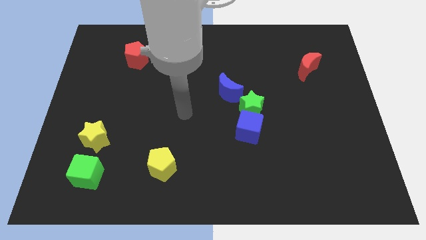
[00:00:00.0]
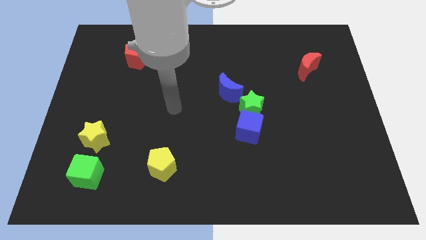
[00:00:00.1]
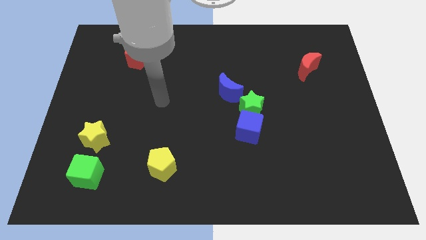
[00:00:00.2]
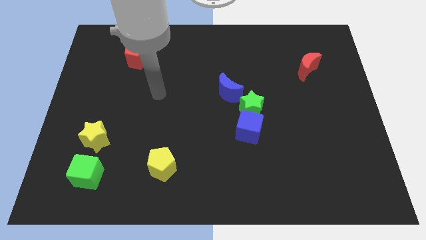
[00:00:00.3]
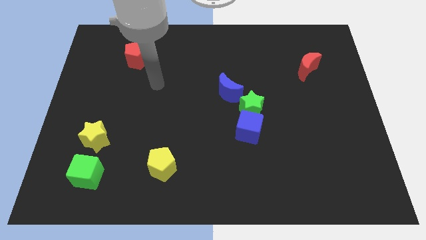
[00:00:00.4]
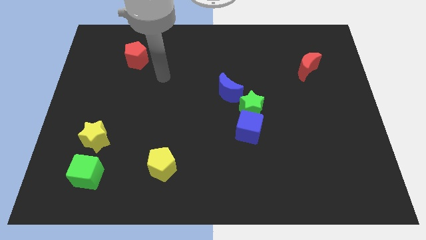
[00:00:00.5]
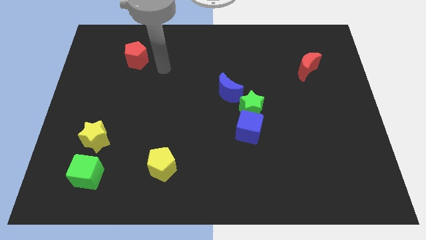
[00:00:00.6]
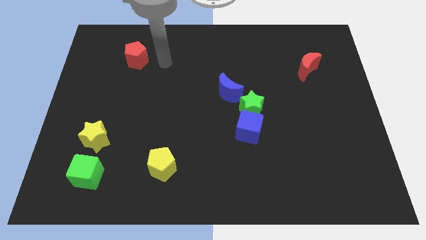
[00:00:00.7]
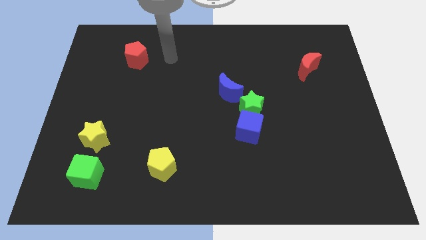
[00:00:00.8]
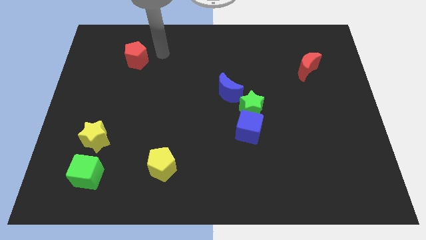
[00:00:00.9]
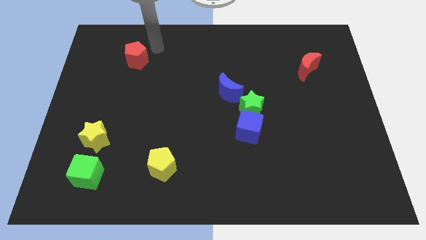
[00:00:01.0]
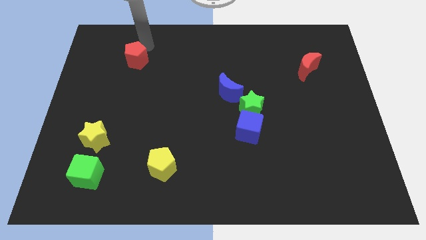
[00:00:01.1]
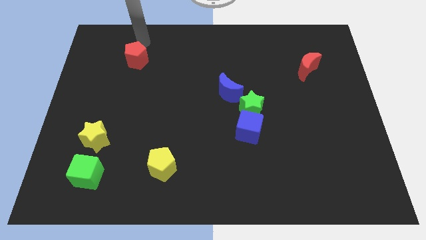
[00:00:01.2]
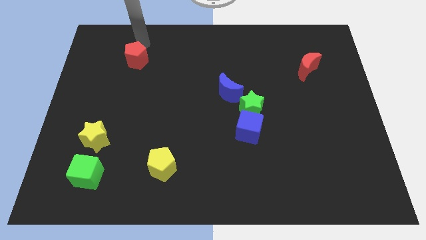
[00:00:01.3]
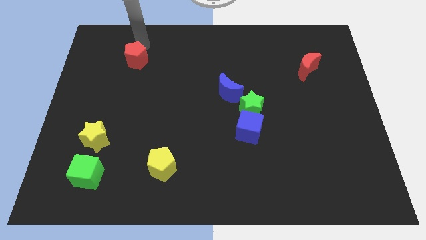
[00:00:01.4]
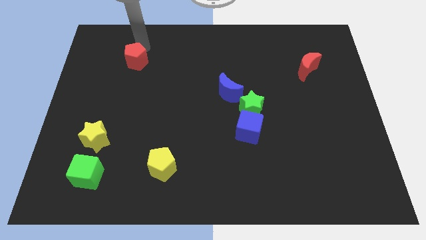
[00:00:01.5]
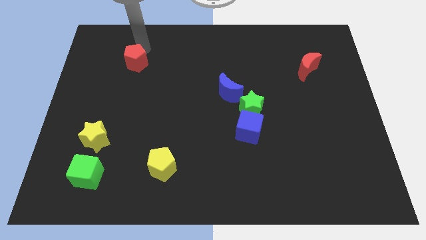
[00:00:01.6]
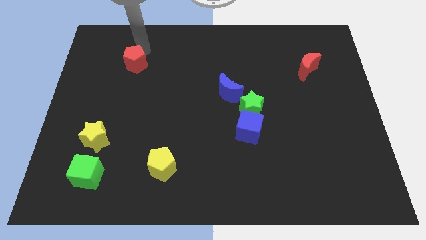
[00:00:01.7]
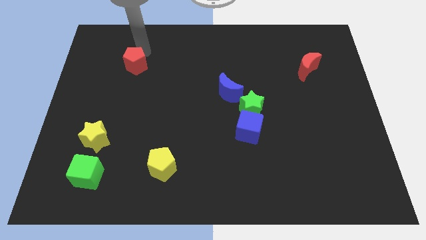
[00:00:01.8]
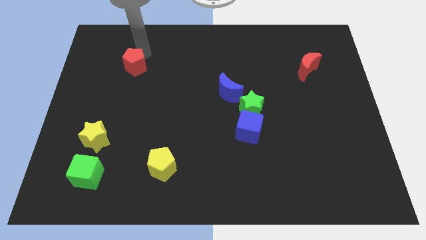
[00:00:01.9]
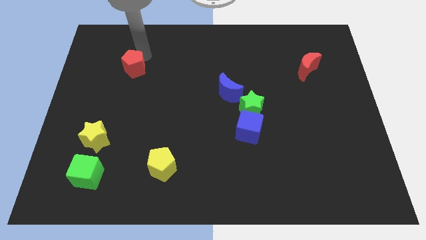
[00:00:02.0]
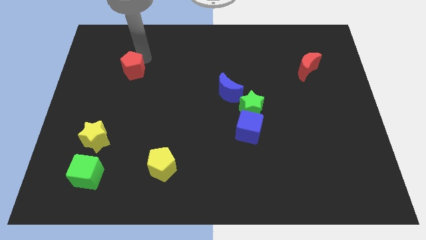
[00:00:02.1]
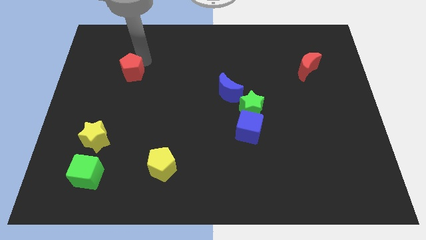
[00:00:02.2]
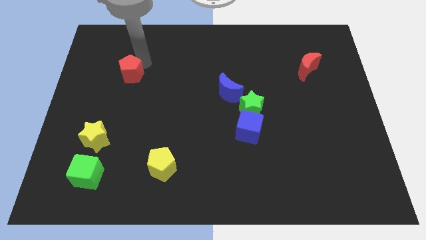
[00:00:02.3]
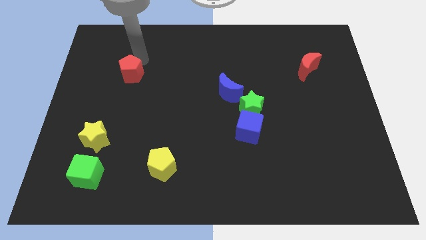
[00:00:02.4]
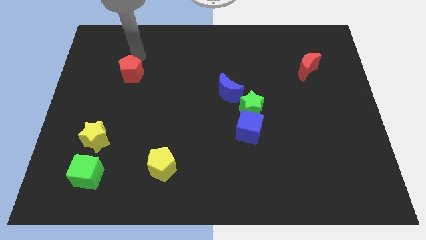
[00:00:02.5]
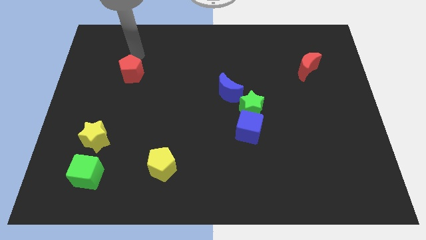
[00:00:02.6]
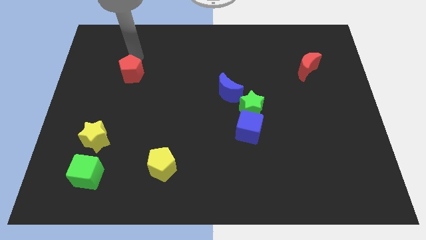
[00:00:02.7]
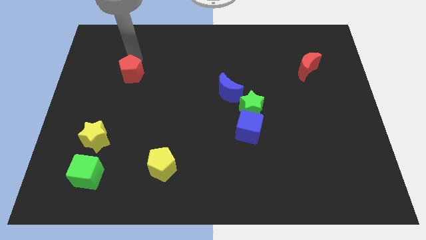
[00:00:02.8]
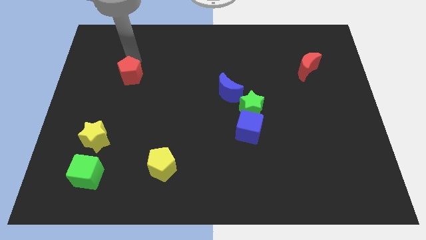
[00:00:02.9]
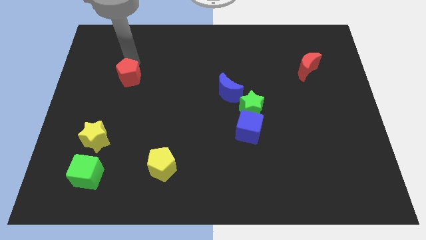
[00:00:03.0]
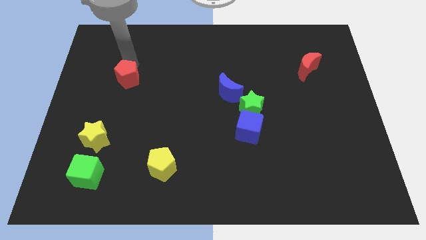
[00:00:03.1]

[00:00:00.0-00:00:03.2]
push the red pentagon somewhat downwards

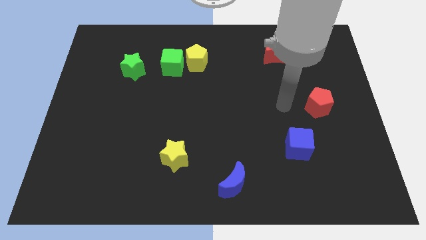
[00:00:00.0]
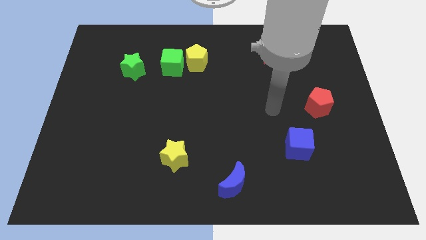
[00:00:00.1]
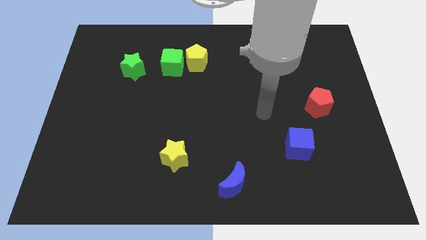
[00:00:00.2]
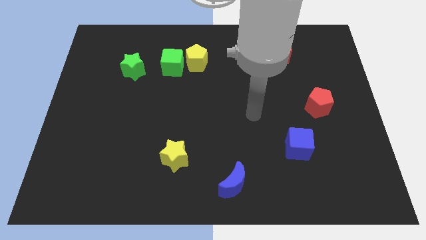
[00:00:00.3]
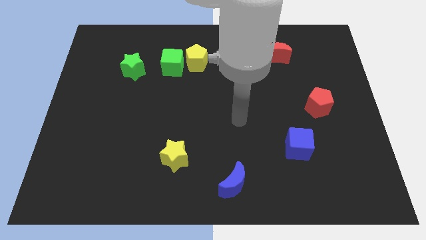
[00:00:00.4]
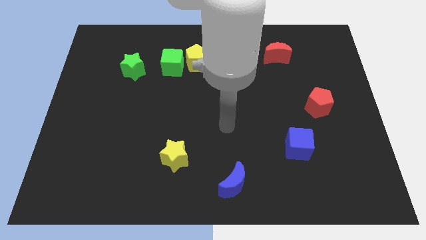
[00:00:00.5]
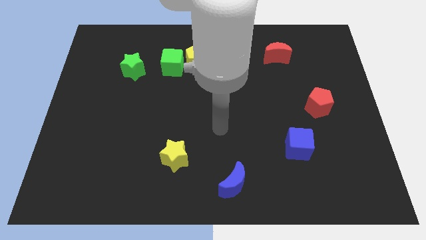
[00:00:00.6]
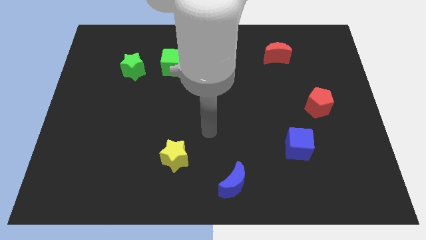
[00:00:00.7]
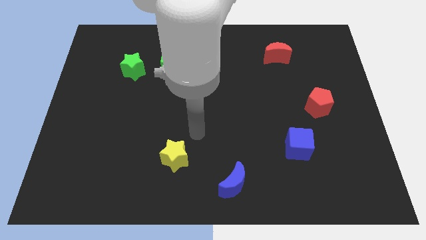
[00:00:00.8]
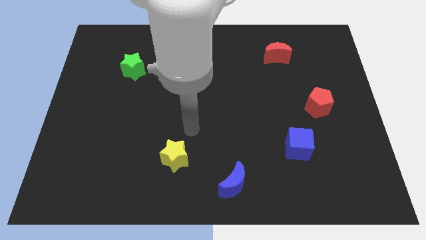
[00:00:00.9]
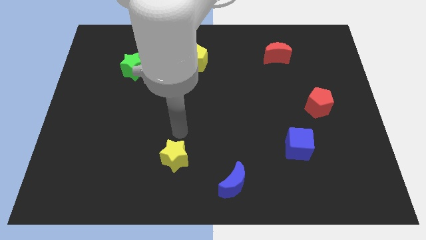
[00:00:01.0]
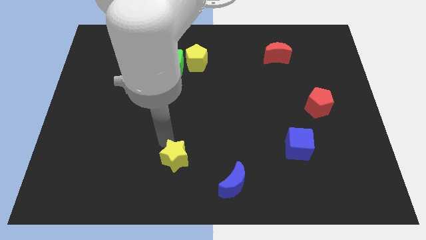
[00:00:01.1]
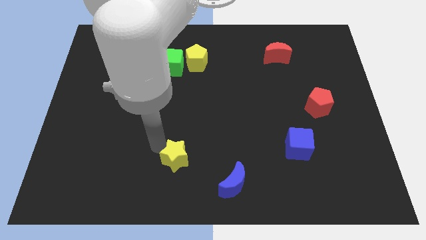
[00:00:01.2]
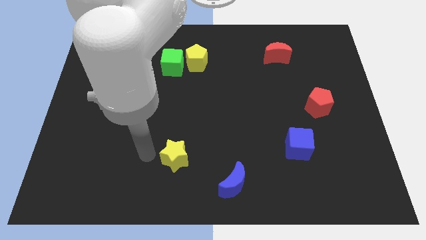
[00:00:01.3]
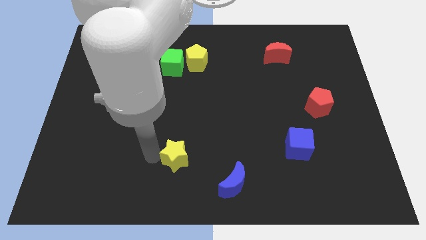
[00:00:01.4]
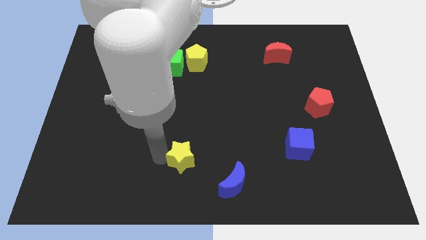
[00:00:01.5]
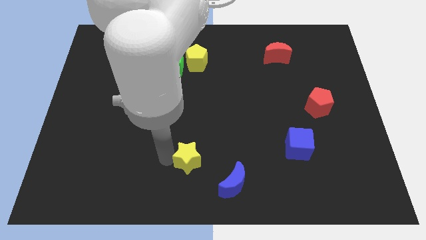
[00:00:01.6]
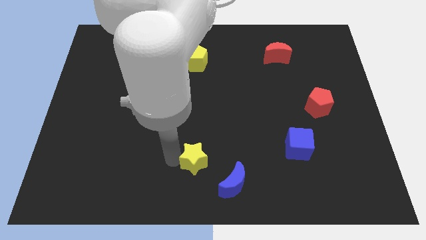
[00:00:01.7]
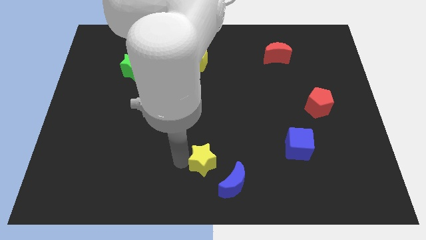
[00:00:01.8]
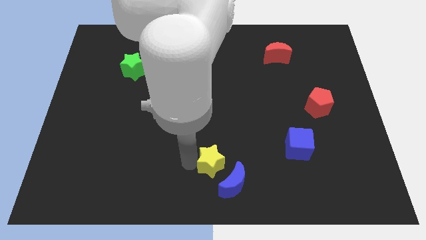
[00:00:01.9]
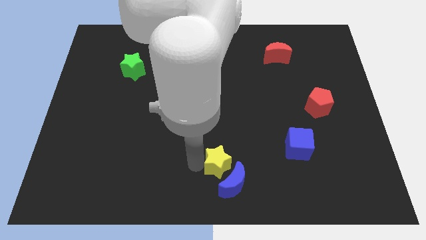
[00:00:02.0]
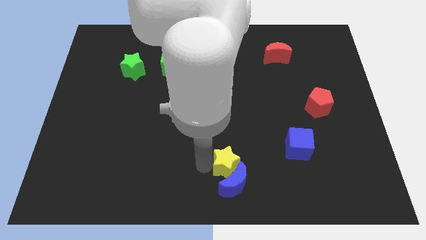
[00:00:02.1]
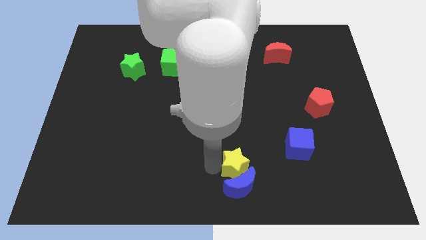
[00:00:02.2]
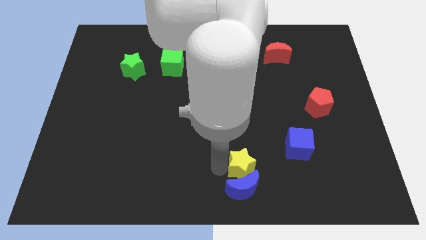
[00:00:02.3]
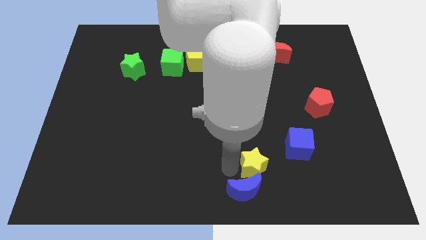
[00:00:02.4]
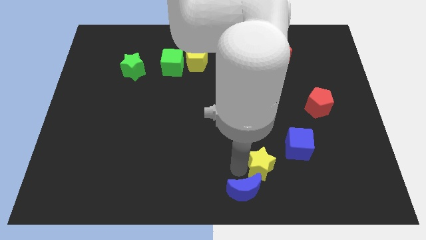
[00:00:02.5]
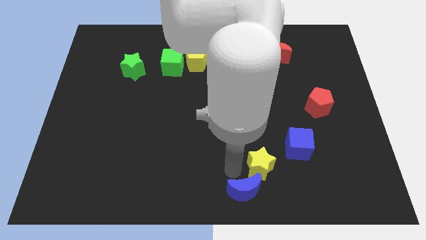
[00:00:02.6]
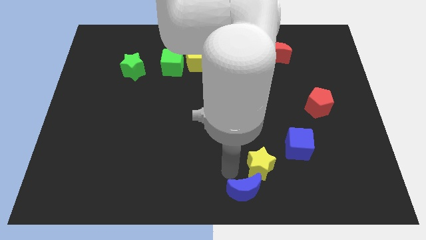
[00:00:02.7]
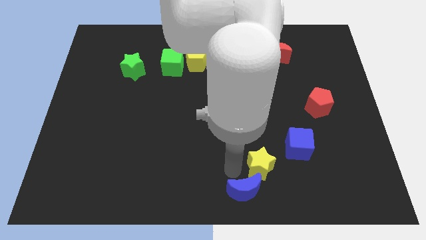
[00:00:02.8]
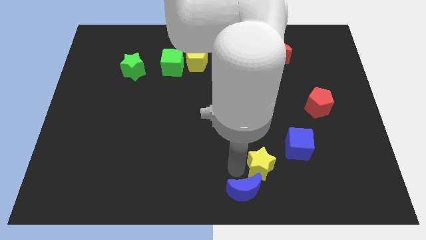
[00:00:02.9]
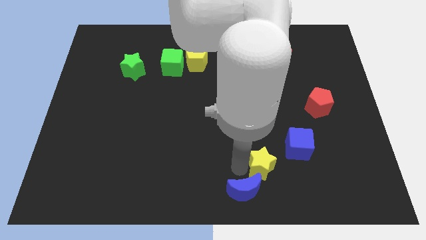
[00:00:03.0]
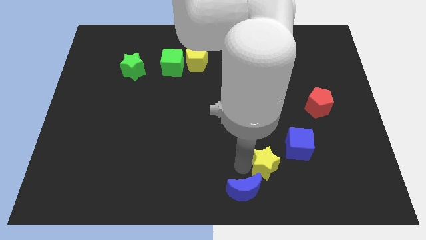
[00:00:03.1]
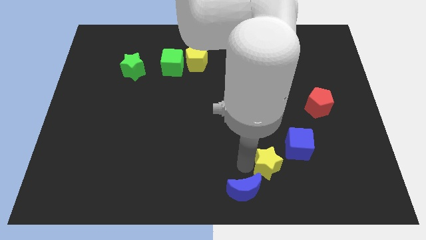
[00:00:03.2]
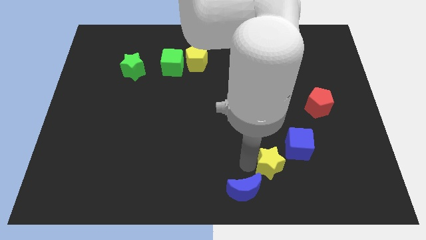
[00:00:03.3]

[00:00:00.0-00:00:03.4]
slide the yellow star to the right

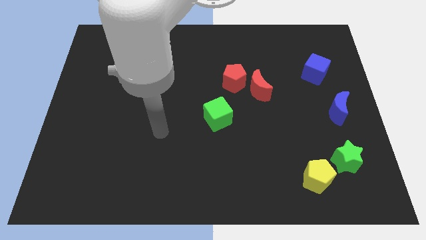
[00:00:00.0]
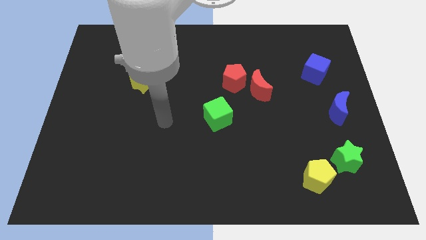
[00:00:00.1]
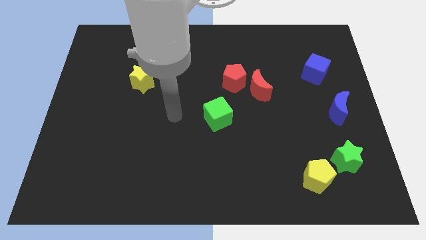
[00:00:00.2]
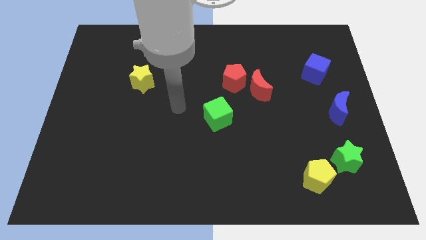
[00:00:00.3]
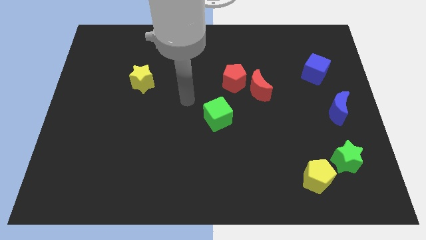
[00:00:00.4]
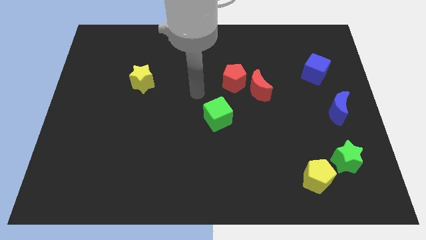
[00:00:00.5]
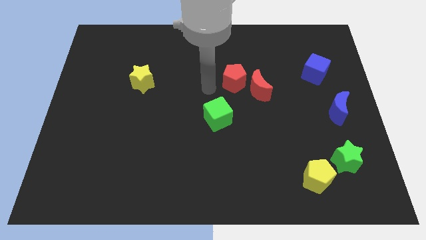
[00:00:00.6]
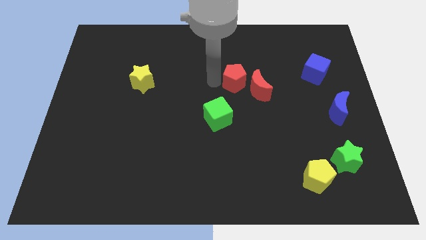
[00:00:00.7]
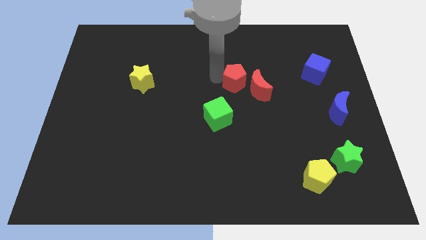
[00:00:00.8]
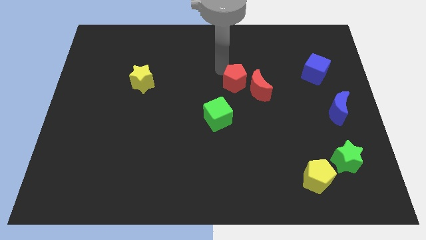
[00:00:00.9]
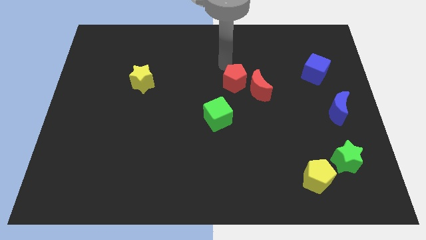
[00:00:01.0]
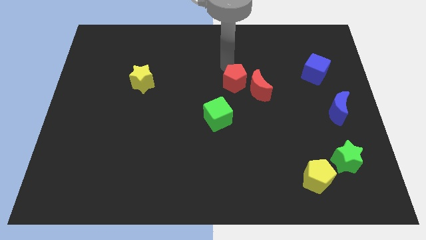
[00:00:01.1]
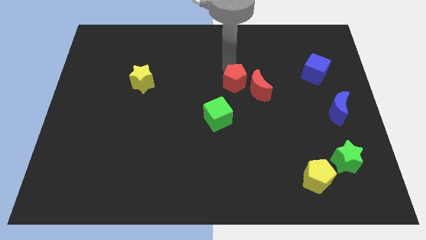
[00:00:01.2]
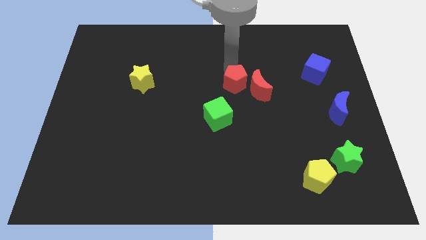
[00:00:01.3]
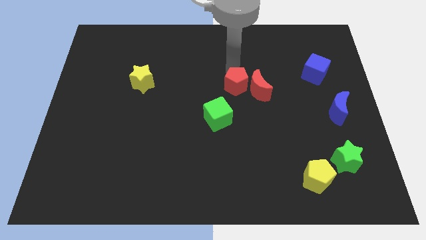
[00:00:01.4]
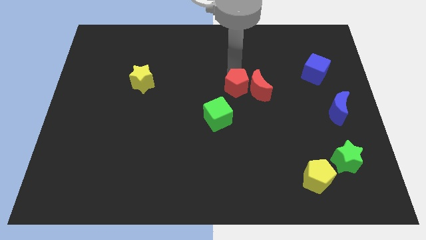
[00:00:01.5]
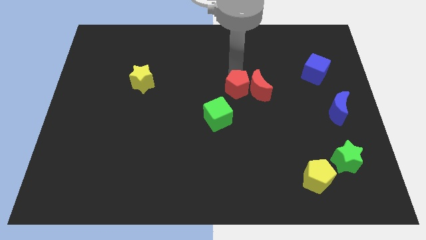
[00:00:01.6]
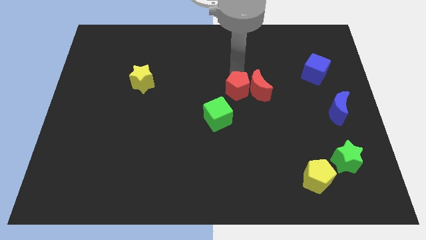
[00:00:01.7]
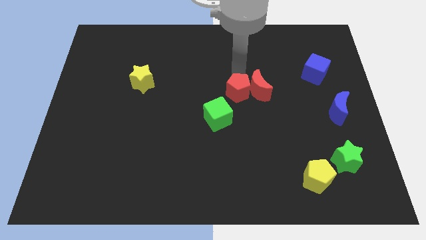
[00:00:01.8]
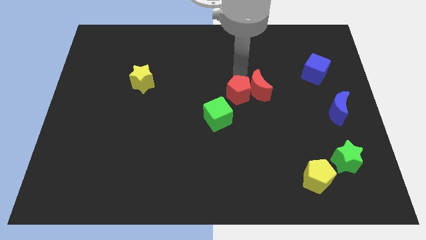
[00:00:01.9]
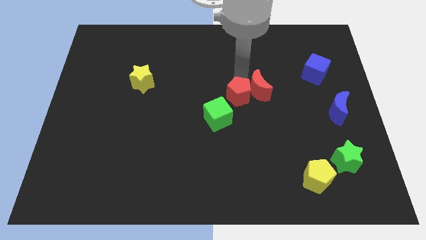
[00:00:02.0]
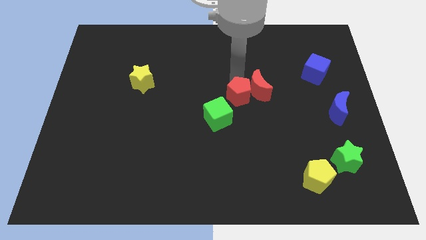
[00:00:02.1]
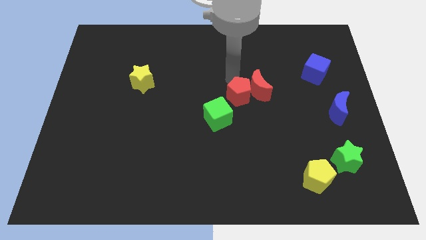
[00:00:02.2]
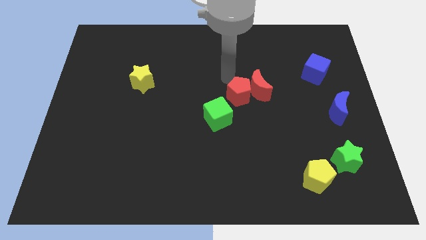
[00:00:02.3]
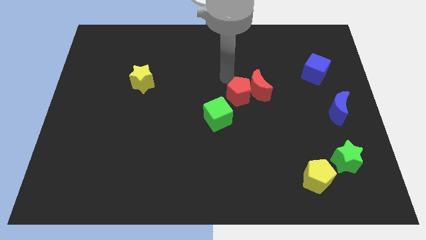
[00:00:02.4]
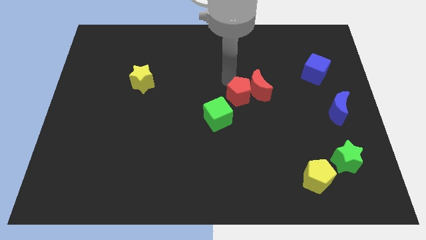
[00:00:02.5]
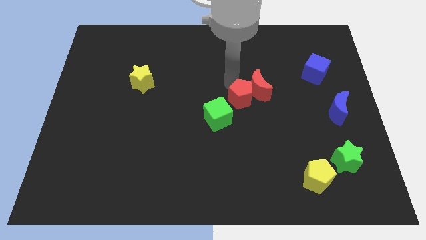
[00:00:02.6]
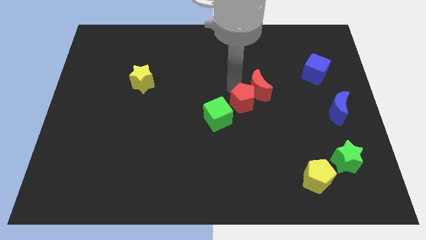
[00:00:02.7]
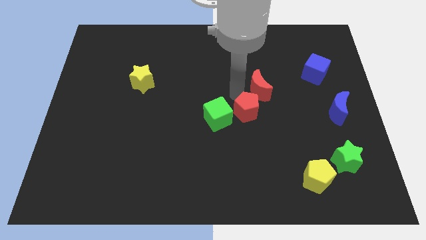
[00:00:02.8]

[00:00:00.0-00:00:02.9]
move the red pentagon a bit downwards and then to the right
